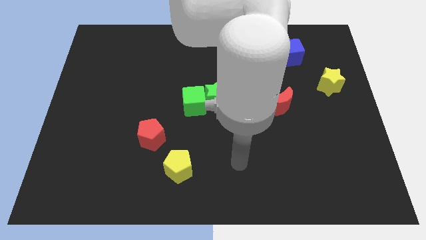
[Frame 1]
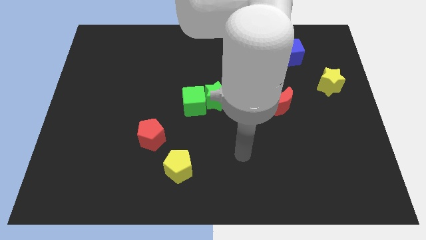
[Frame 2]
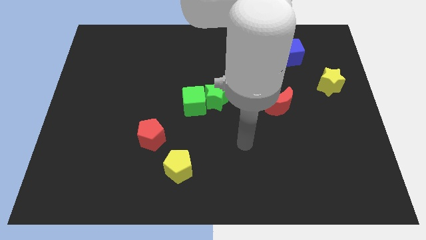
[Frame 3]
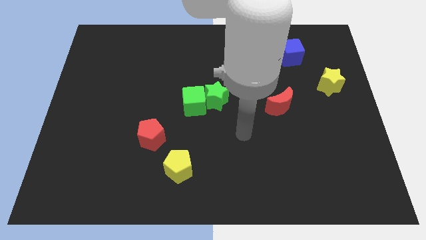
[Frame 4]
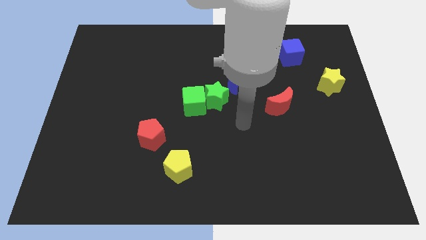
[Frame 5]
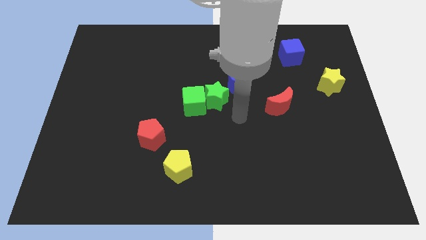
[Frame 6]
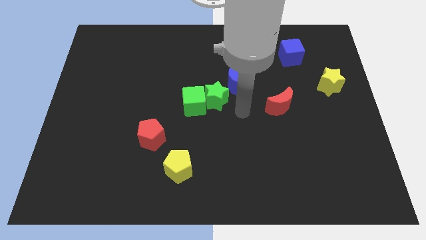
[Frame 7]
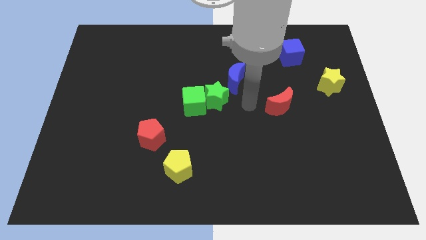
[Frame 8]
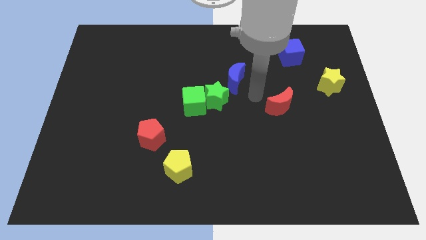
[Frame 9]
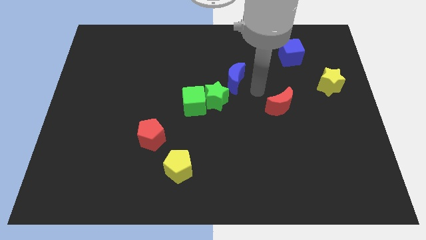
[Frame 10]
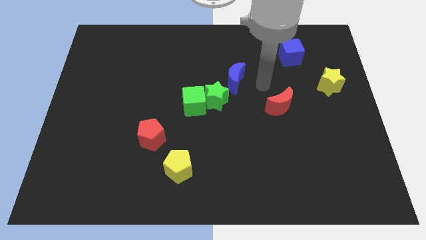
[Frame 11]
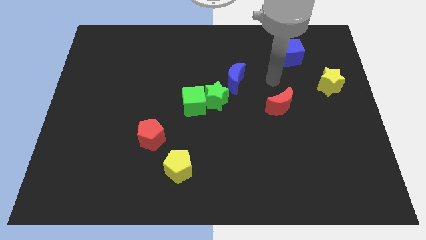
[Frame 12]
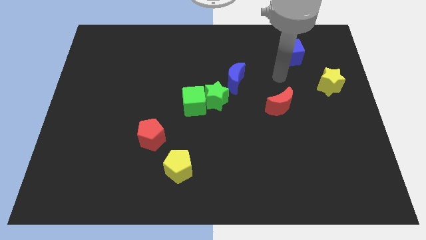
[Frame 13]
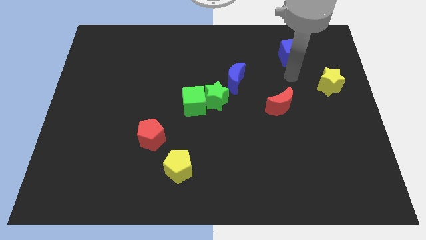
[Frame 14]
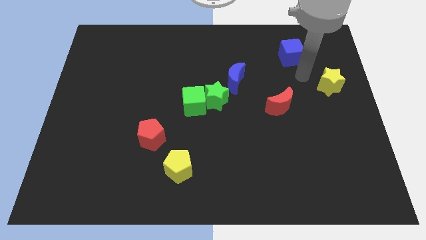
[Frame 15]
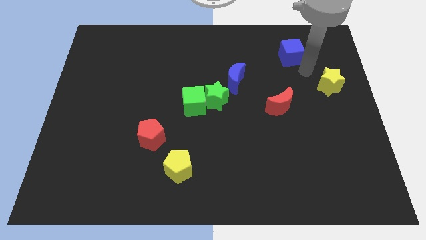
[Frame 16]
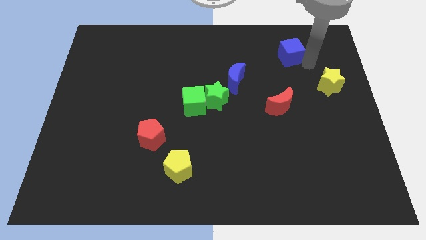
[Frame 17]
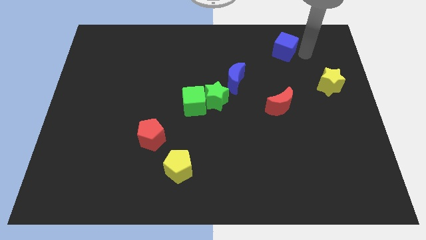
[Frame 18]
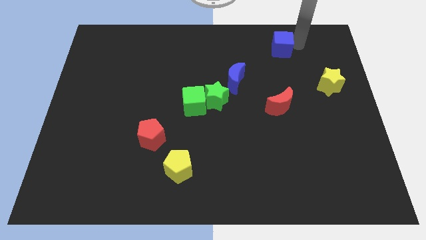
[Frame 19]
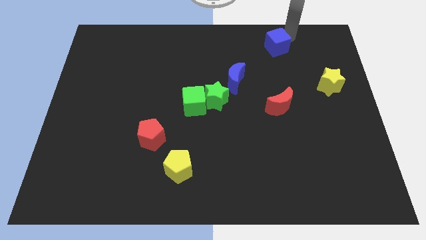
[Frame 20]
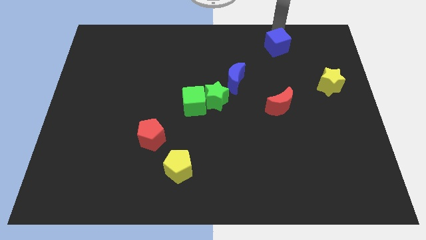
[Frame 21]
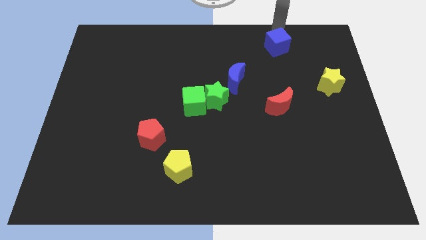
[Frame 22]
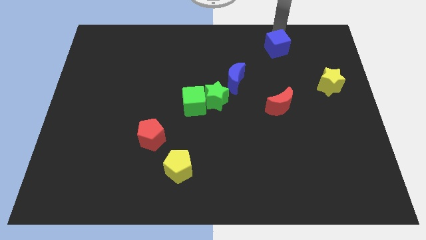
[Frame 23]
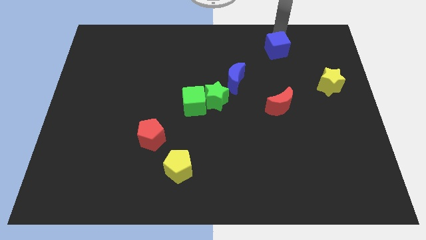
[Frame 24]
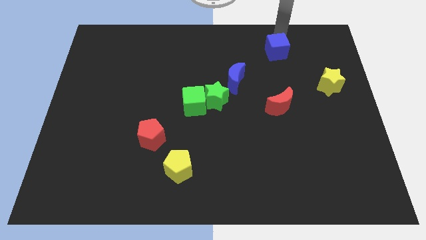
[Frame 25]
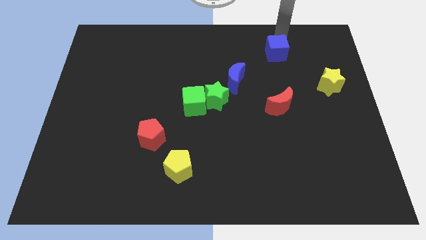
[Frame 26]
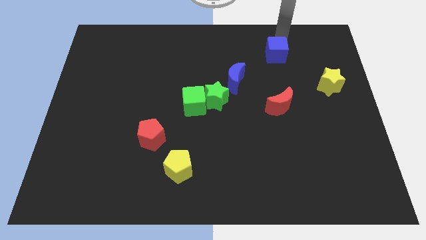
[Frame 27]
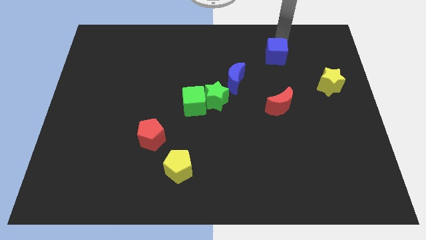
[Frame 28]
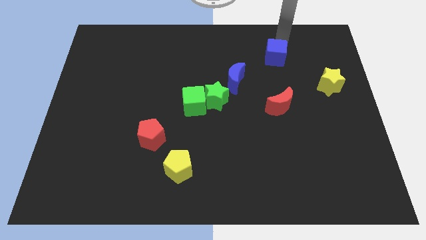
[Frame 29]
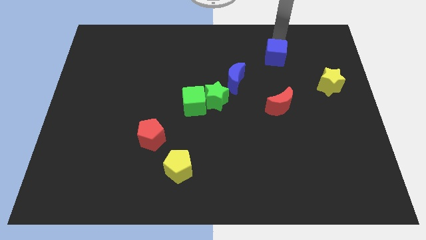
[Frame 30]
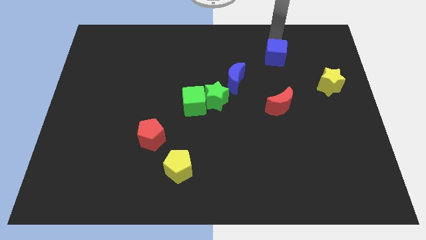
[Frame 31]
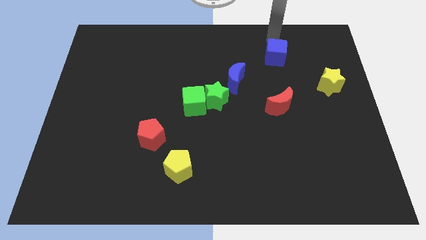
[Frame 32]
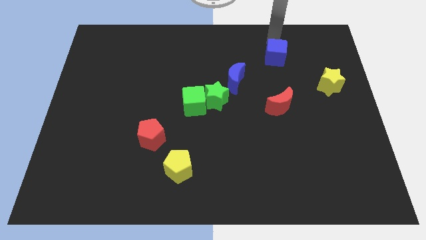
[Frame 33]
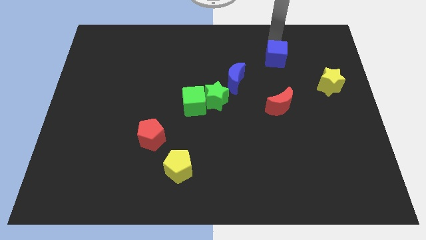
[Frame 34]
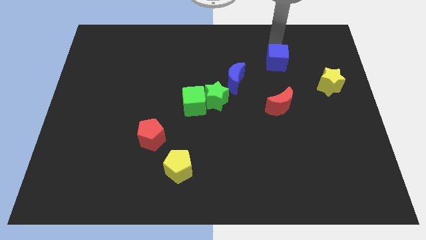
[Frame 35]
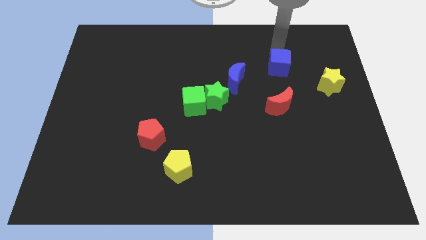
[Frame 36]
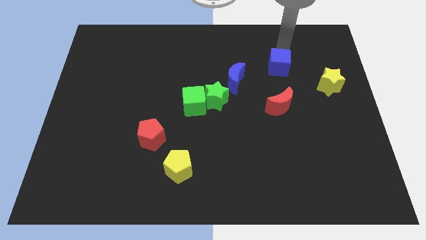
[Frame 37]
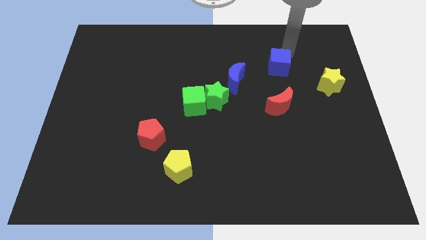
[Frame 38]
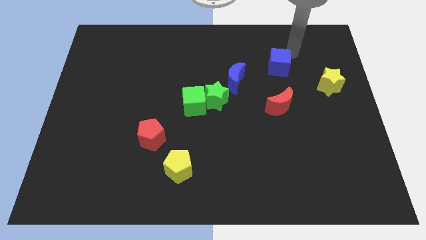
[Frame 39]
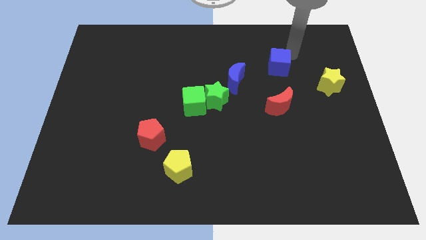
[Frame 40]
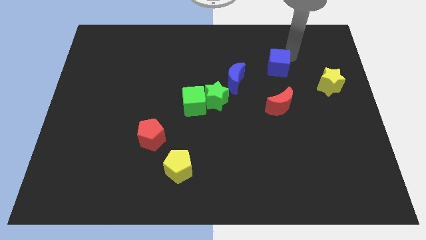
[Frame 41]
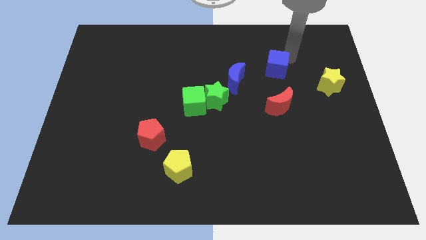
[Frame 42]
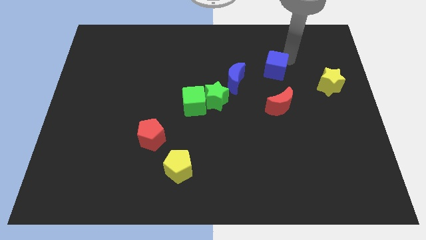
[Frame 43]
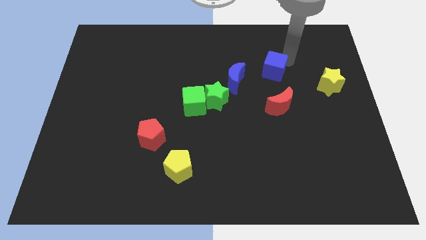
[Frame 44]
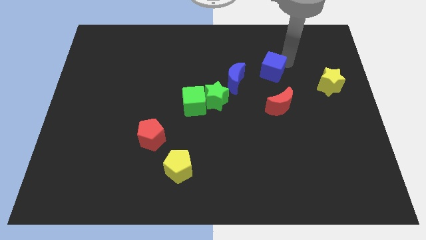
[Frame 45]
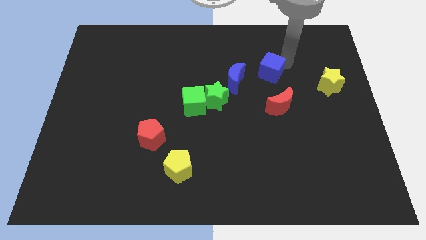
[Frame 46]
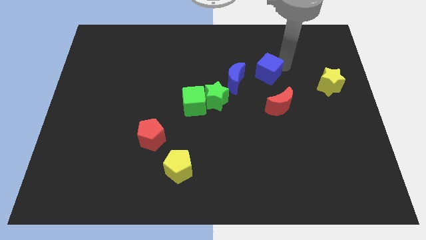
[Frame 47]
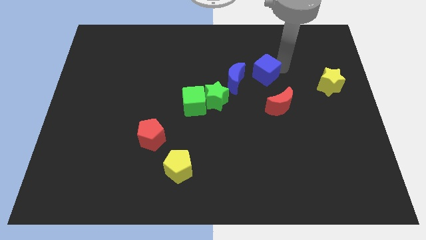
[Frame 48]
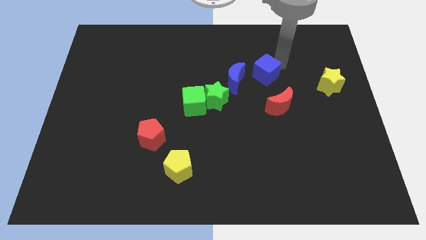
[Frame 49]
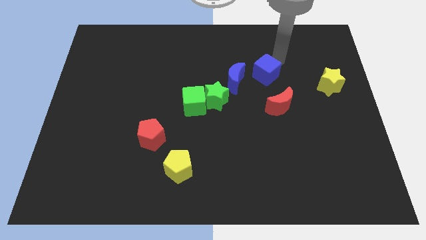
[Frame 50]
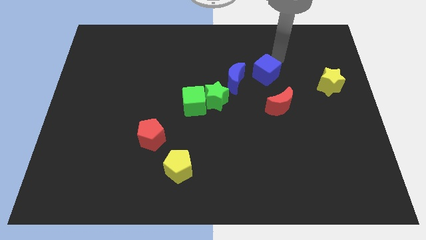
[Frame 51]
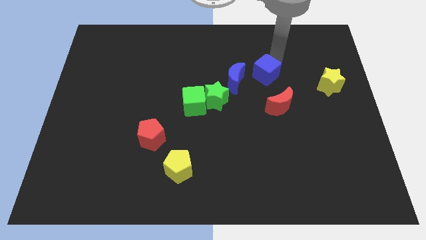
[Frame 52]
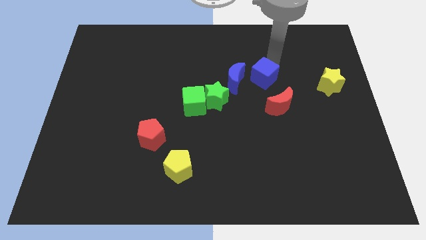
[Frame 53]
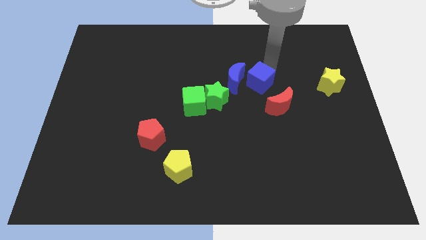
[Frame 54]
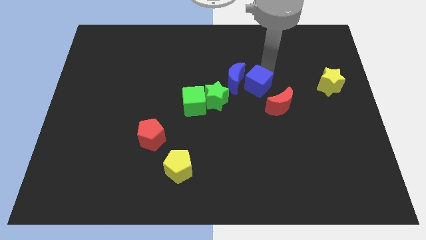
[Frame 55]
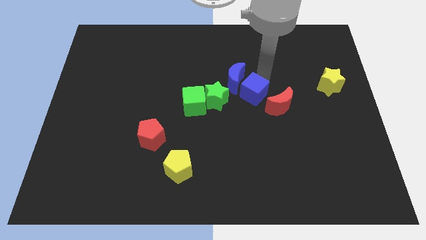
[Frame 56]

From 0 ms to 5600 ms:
slide the blue cube to the left of the red moon

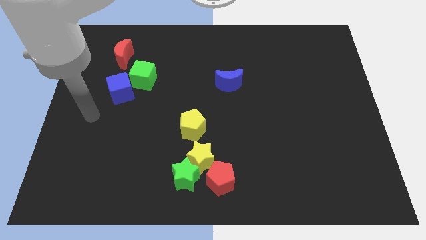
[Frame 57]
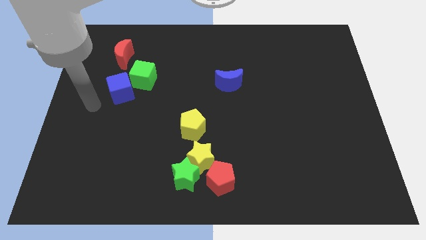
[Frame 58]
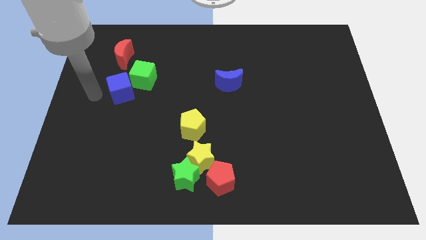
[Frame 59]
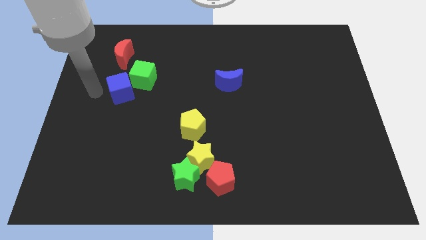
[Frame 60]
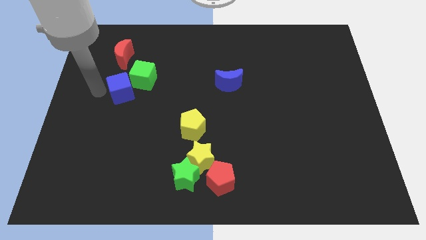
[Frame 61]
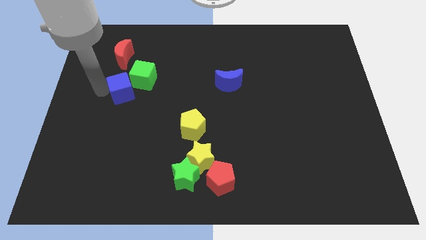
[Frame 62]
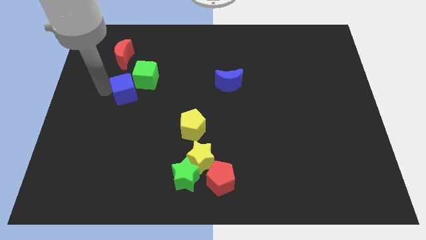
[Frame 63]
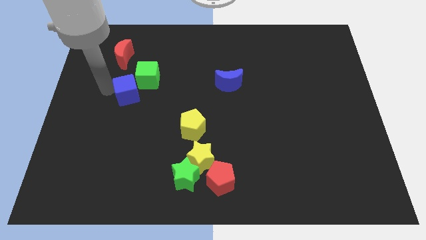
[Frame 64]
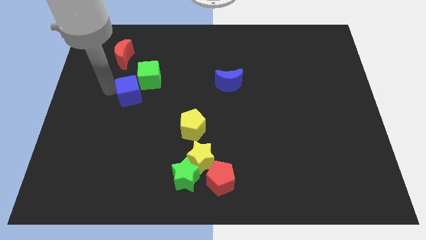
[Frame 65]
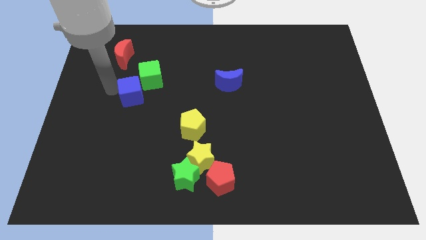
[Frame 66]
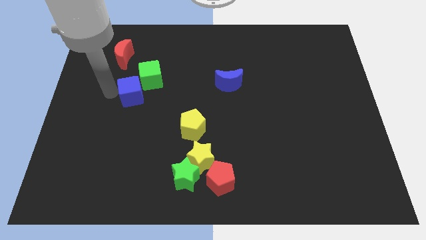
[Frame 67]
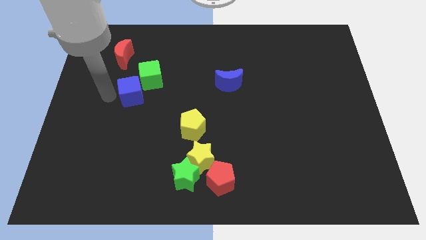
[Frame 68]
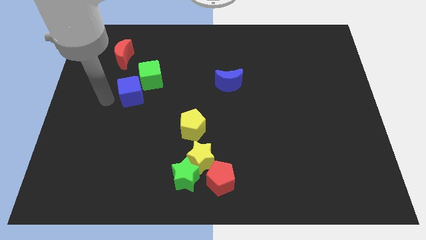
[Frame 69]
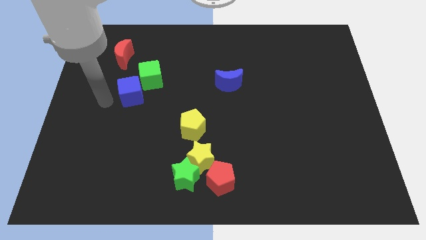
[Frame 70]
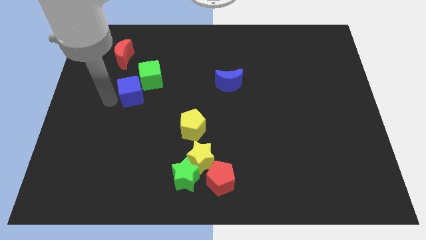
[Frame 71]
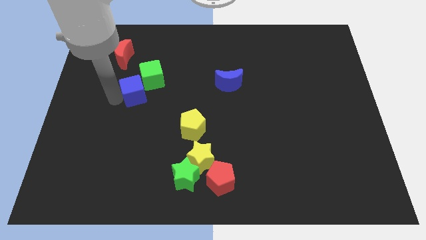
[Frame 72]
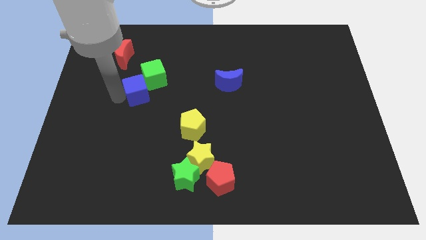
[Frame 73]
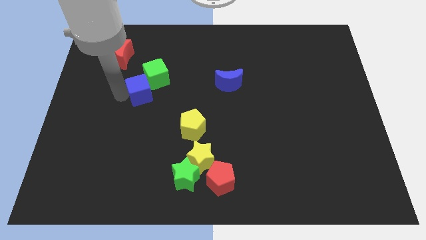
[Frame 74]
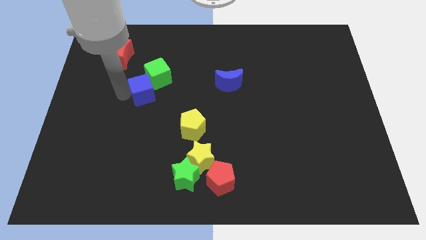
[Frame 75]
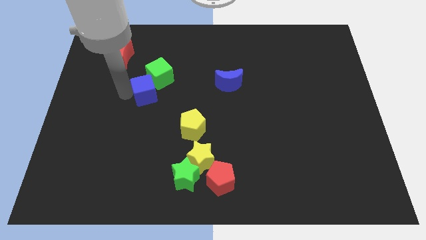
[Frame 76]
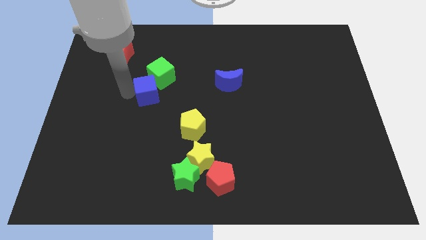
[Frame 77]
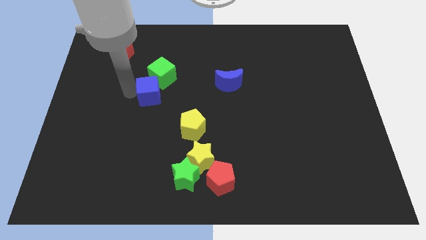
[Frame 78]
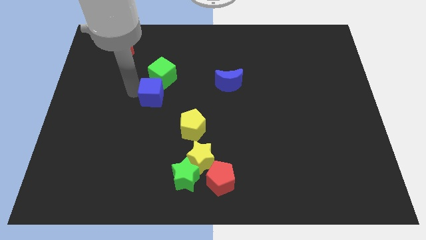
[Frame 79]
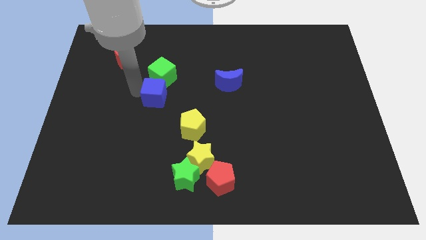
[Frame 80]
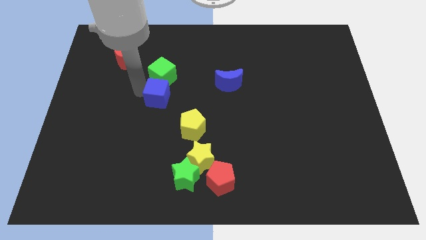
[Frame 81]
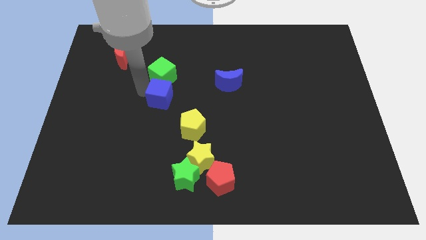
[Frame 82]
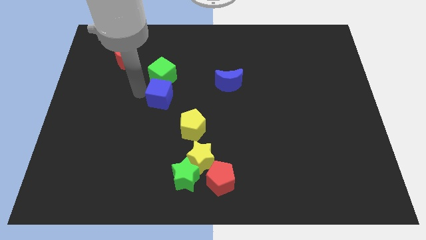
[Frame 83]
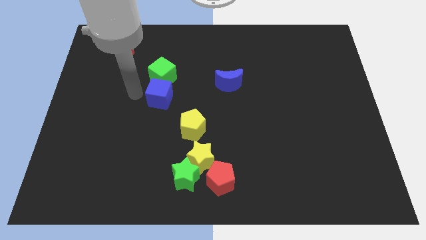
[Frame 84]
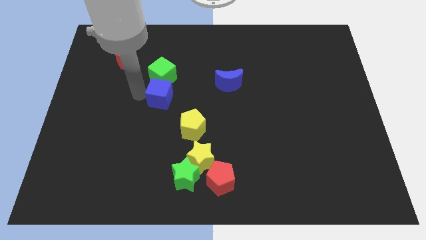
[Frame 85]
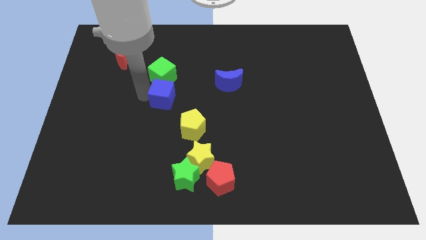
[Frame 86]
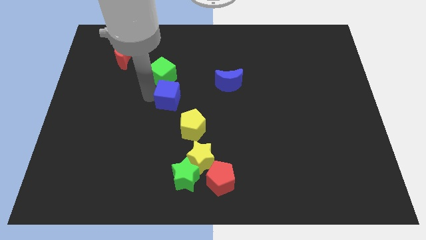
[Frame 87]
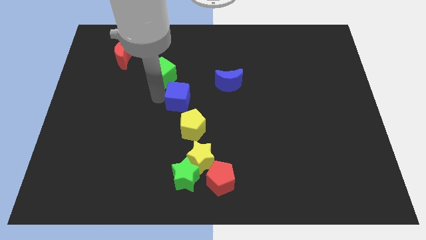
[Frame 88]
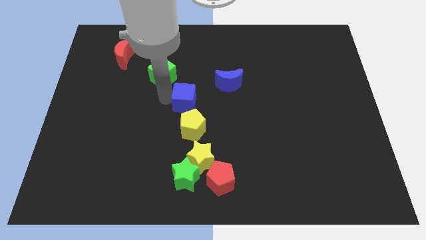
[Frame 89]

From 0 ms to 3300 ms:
put the blue cube to the bottom left of the blue moon
